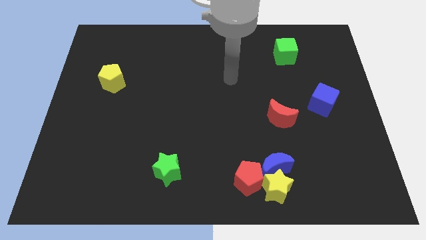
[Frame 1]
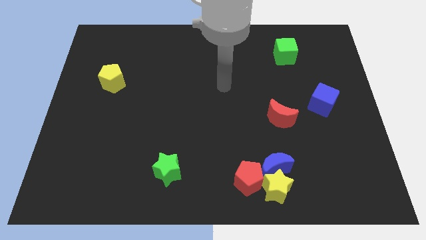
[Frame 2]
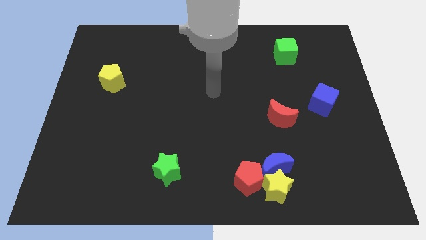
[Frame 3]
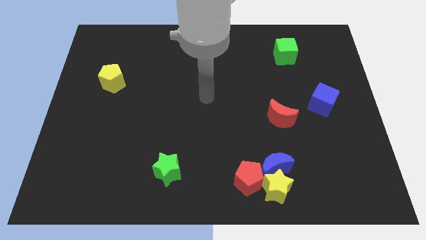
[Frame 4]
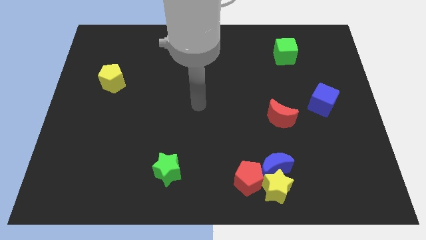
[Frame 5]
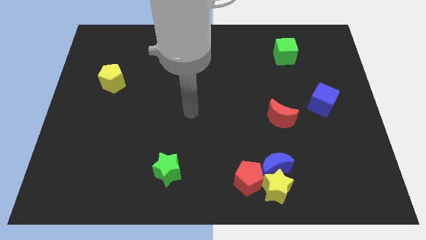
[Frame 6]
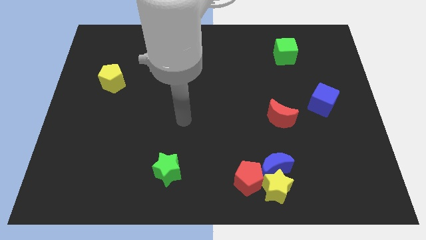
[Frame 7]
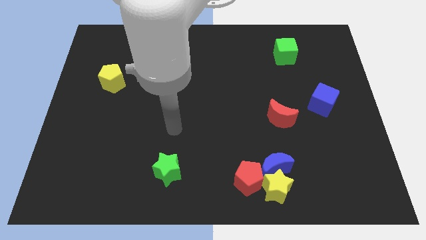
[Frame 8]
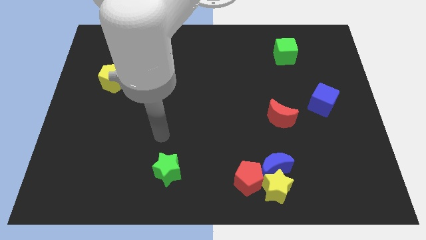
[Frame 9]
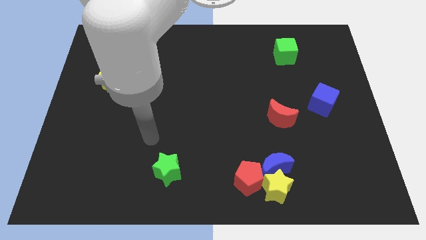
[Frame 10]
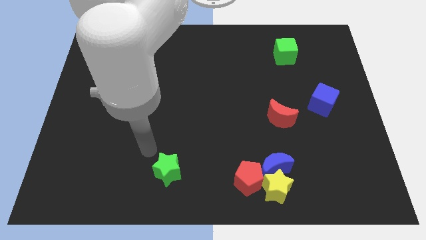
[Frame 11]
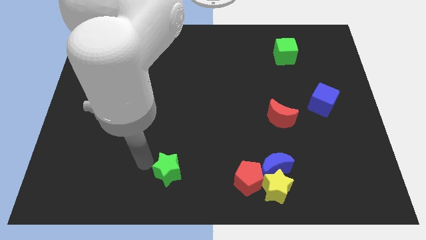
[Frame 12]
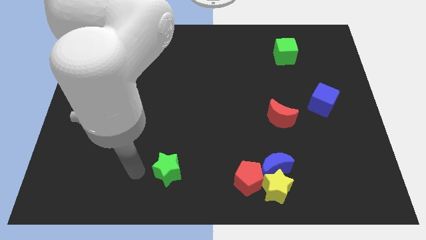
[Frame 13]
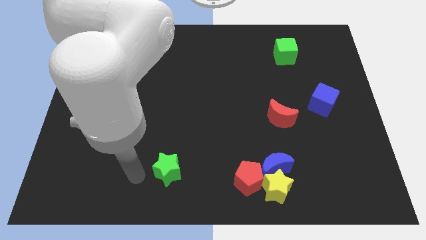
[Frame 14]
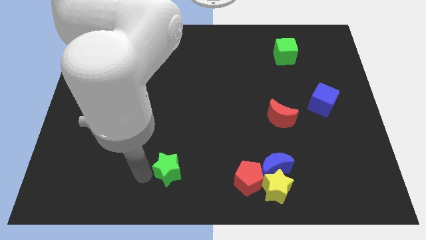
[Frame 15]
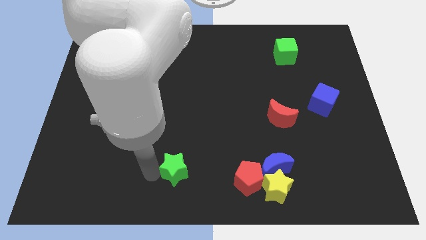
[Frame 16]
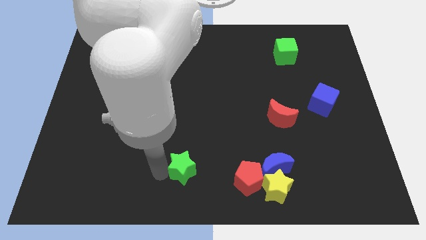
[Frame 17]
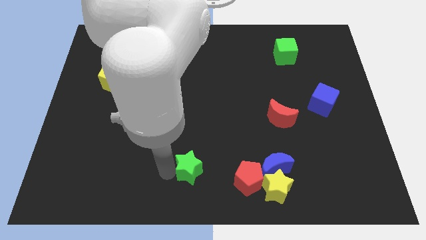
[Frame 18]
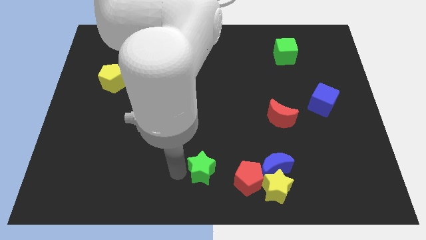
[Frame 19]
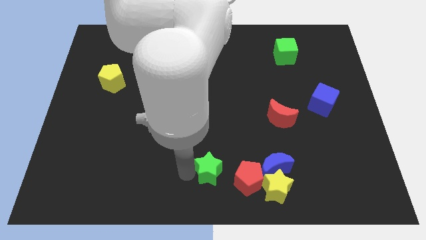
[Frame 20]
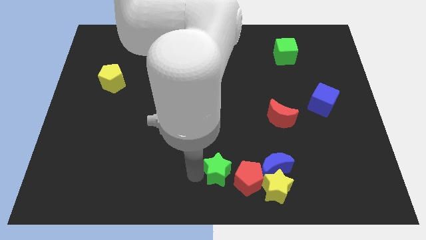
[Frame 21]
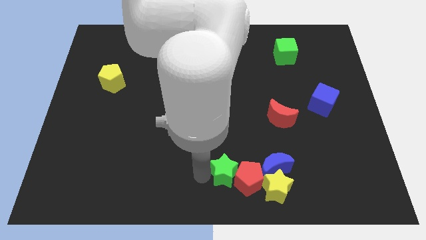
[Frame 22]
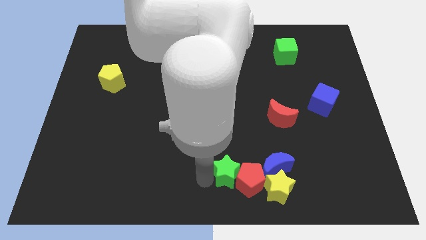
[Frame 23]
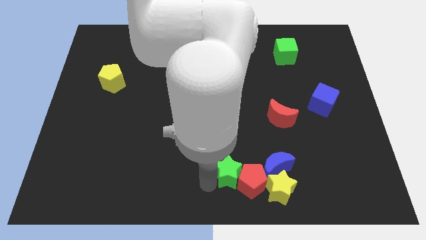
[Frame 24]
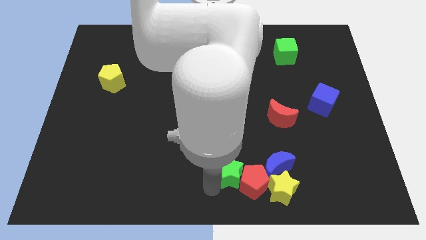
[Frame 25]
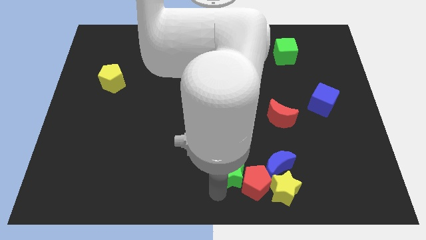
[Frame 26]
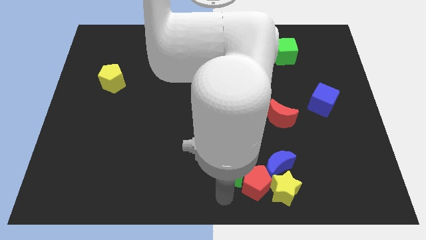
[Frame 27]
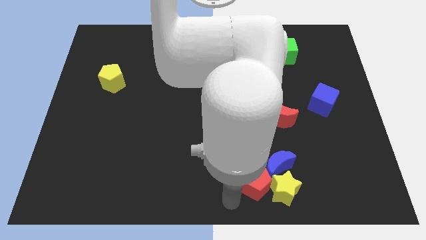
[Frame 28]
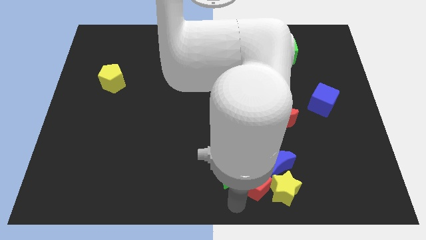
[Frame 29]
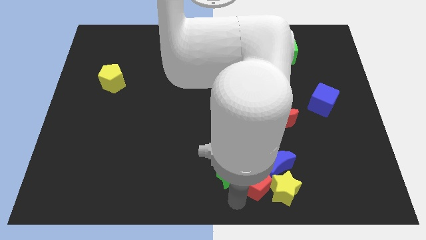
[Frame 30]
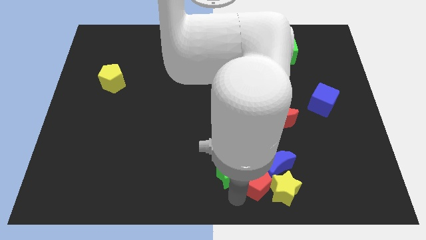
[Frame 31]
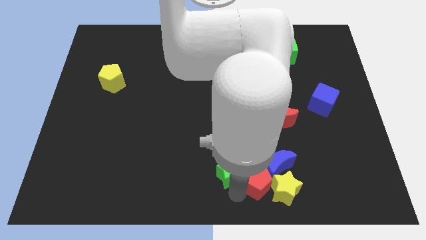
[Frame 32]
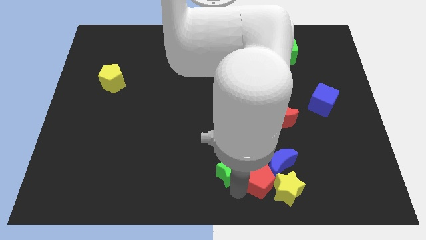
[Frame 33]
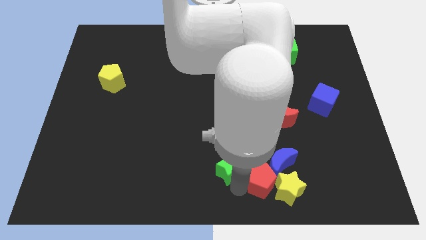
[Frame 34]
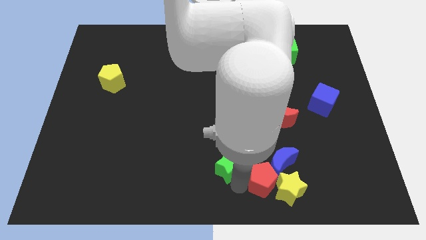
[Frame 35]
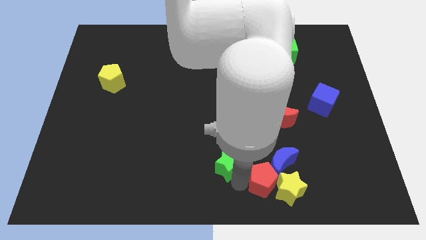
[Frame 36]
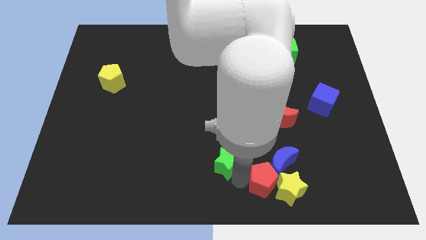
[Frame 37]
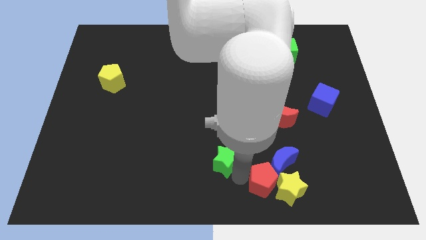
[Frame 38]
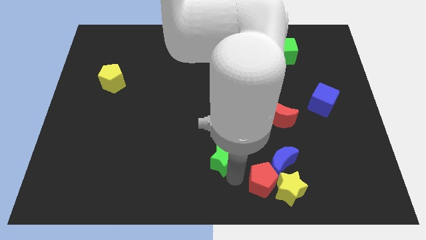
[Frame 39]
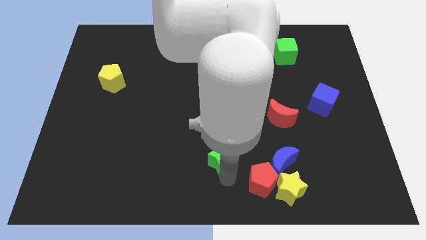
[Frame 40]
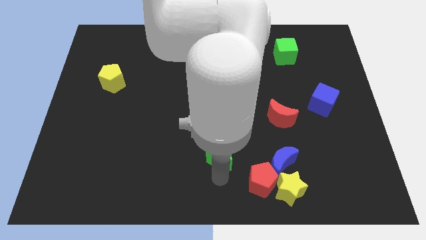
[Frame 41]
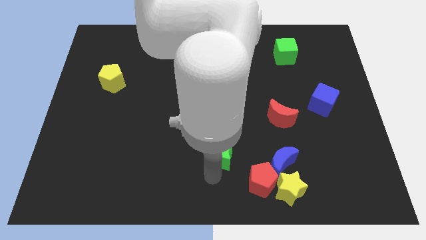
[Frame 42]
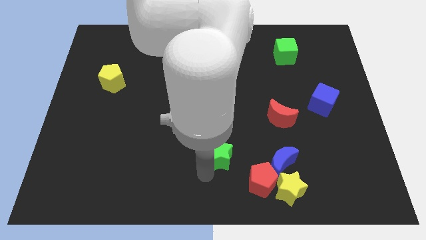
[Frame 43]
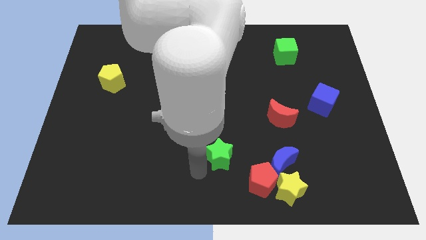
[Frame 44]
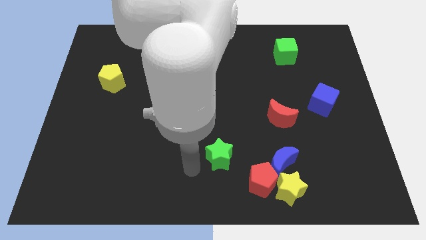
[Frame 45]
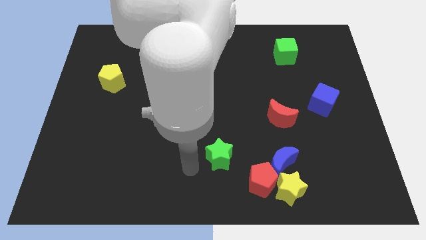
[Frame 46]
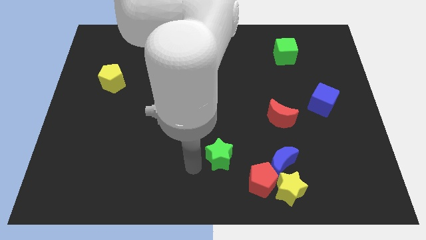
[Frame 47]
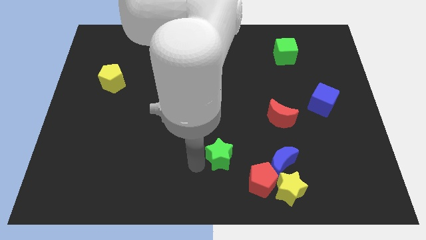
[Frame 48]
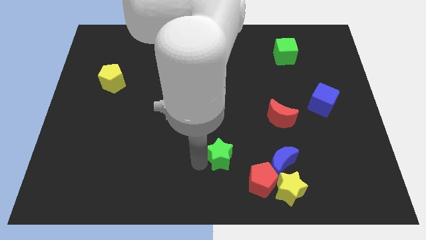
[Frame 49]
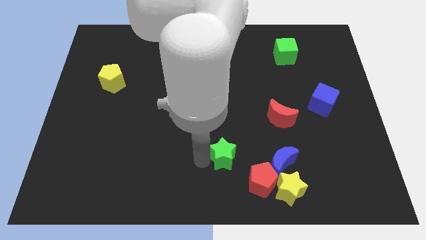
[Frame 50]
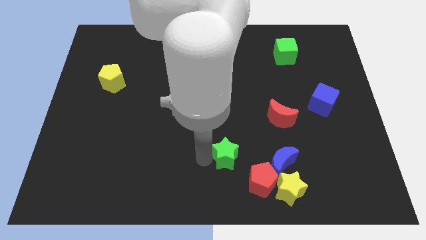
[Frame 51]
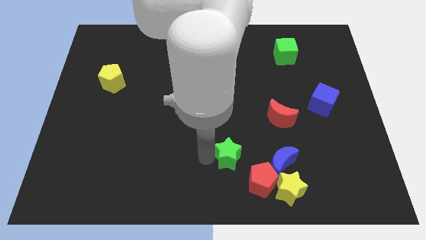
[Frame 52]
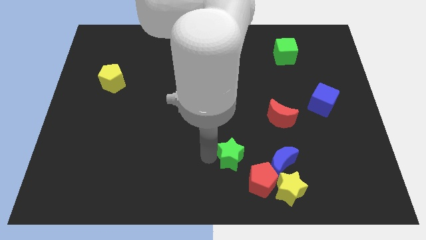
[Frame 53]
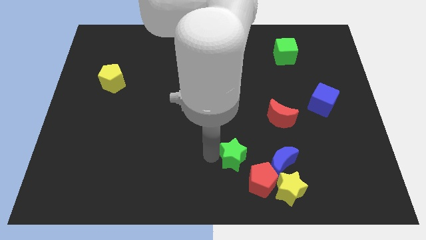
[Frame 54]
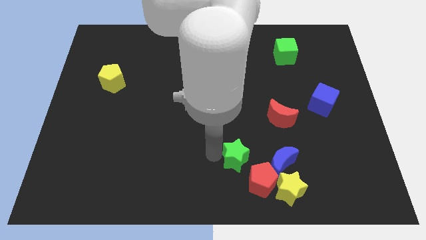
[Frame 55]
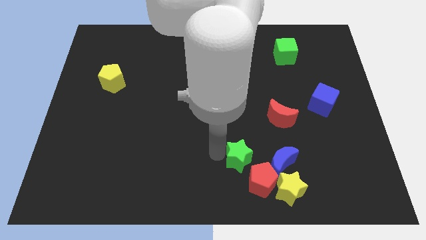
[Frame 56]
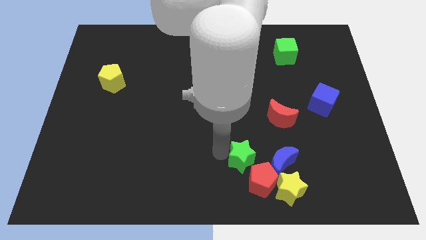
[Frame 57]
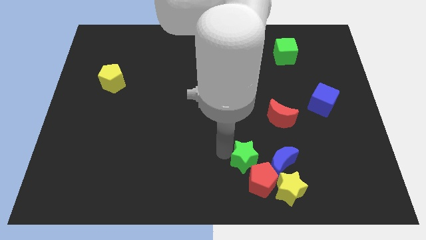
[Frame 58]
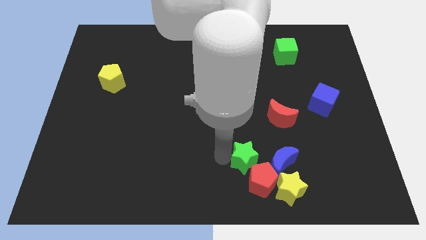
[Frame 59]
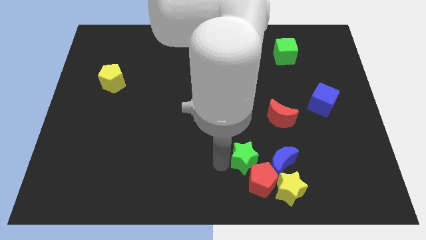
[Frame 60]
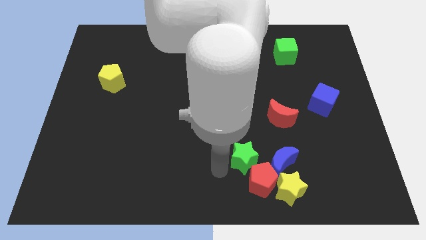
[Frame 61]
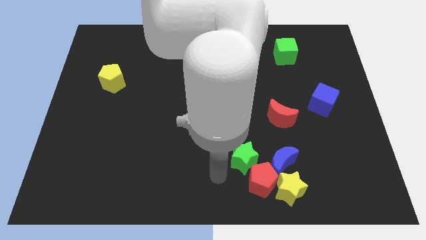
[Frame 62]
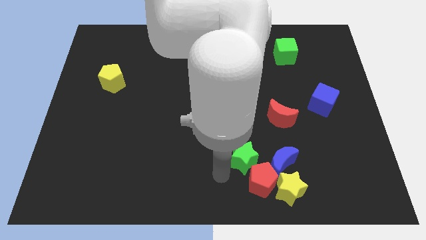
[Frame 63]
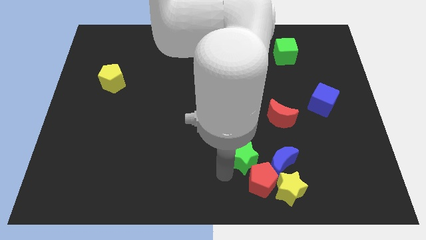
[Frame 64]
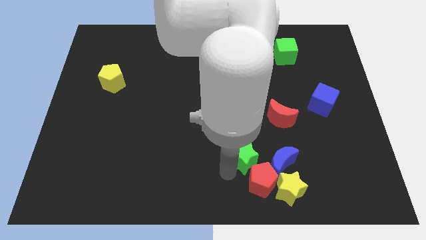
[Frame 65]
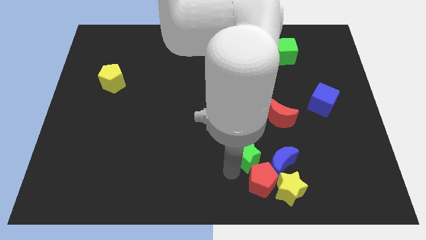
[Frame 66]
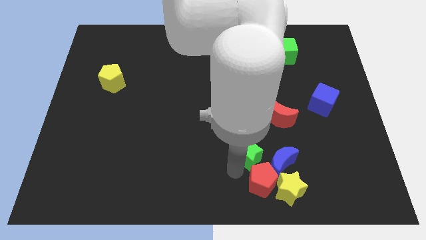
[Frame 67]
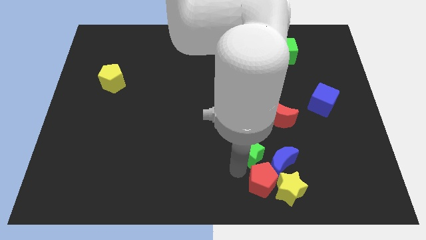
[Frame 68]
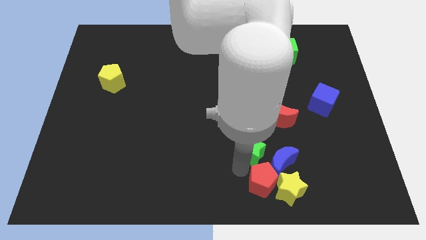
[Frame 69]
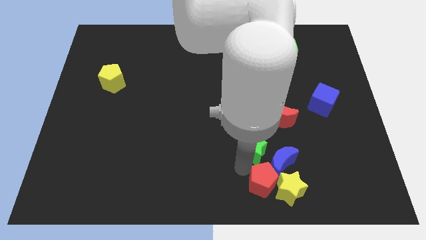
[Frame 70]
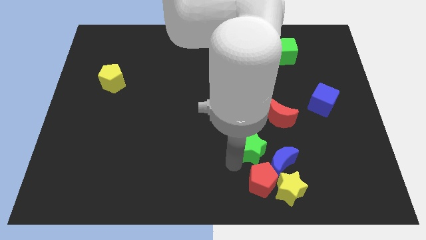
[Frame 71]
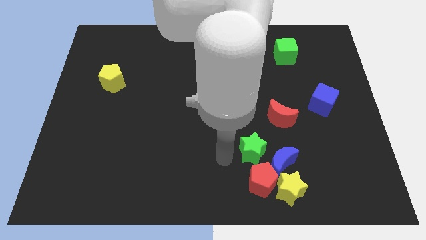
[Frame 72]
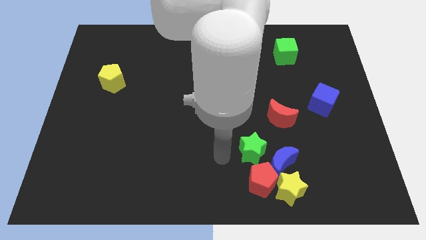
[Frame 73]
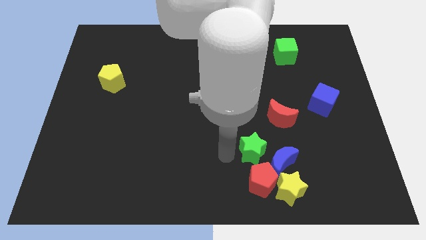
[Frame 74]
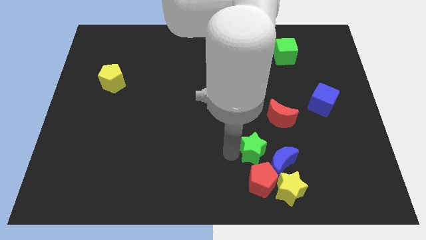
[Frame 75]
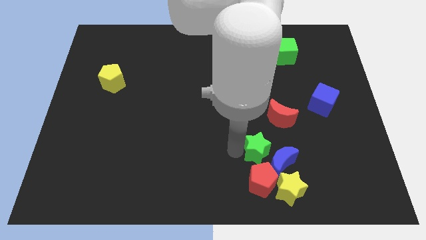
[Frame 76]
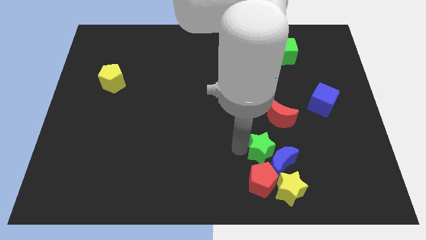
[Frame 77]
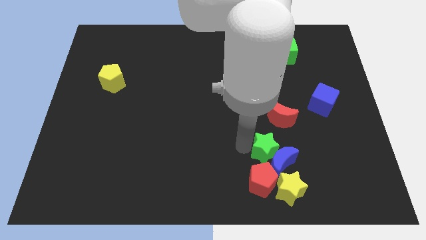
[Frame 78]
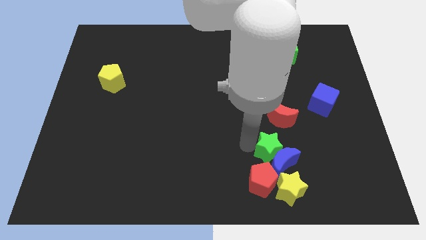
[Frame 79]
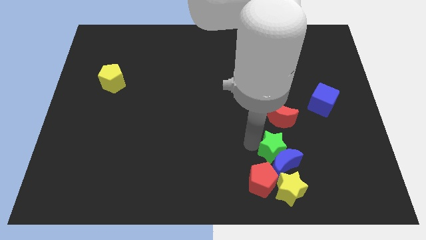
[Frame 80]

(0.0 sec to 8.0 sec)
push the green star to the top right side of the blue moon
